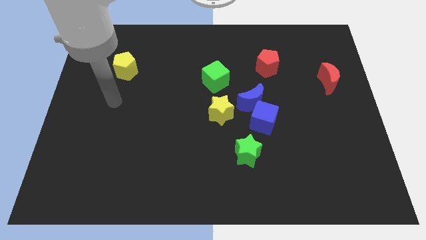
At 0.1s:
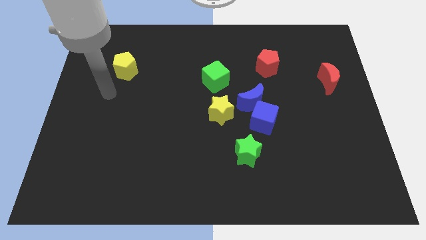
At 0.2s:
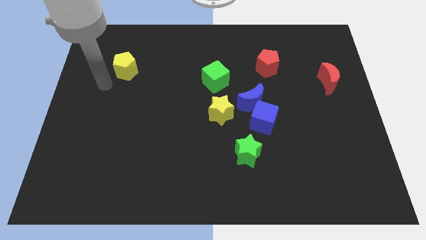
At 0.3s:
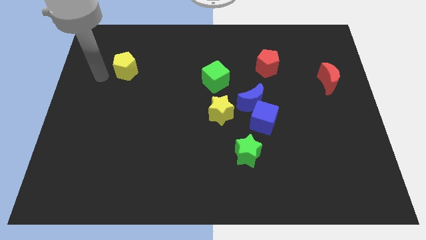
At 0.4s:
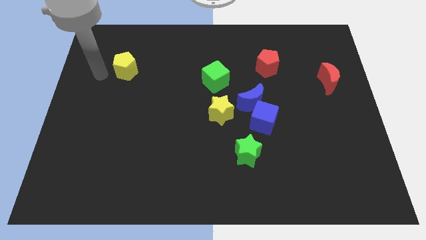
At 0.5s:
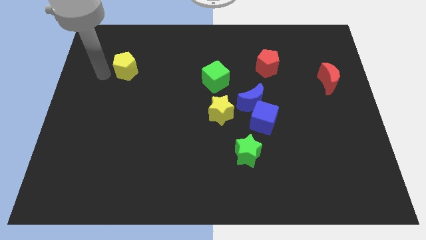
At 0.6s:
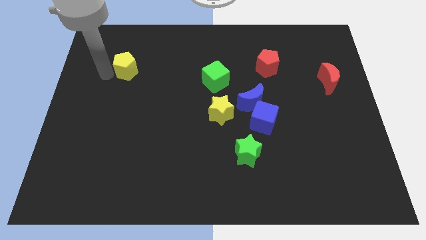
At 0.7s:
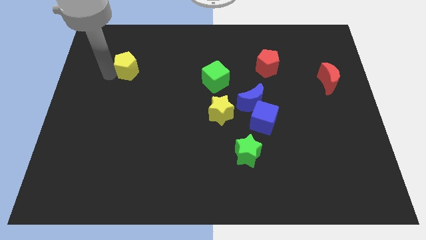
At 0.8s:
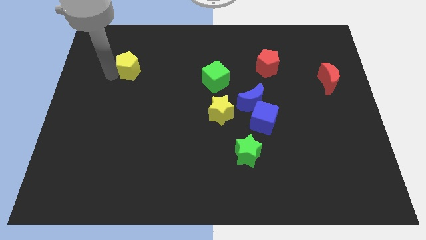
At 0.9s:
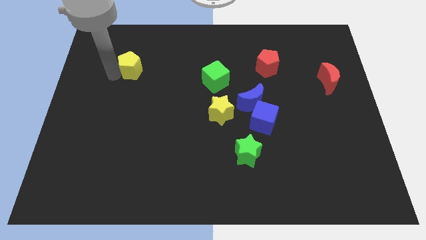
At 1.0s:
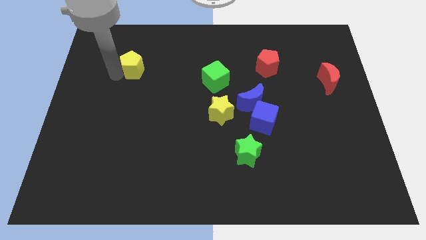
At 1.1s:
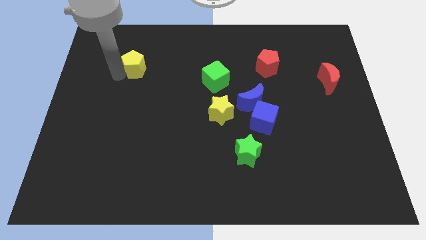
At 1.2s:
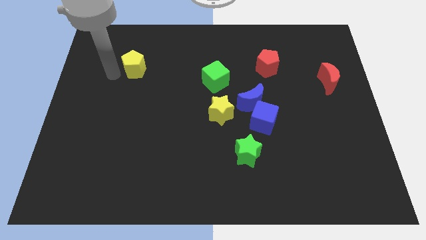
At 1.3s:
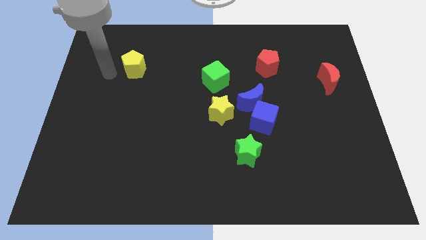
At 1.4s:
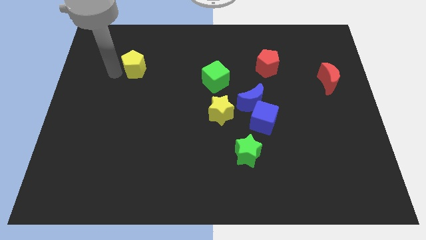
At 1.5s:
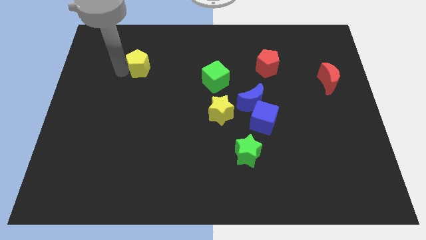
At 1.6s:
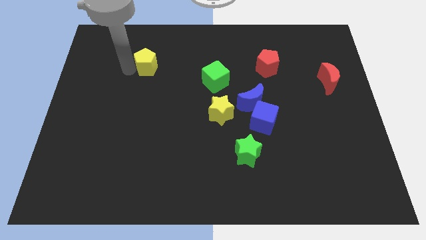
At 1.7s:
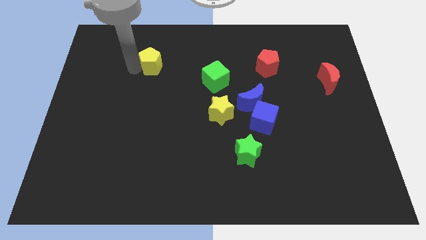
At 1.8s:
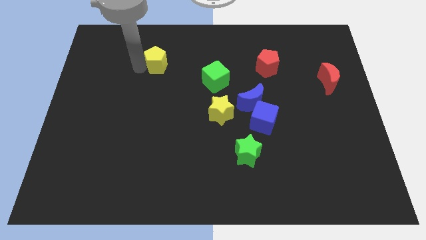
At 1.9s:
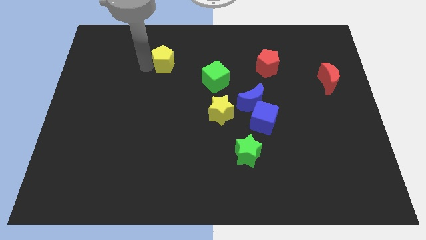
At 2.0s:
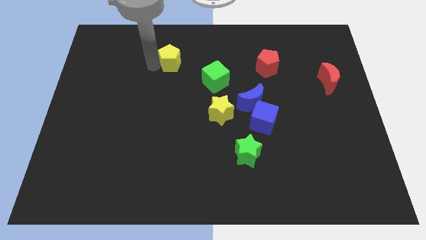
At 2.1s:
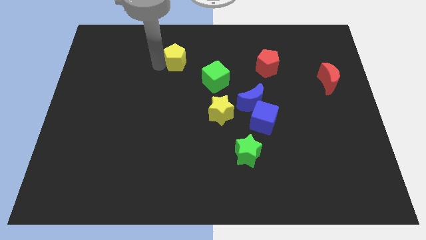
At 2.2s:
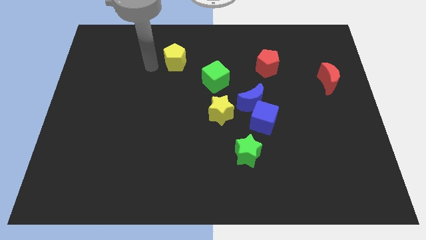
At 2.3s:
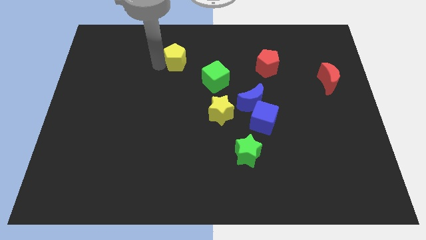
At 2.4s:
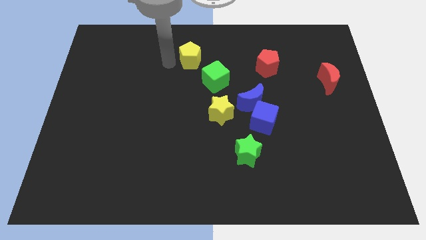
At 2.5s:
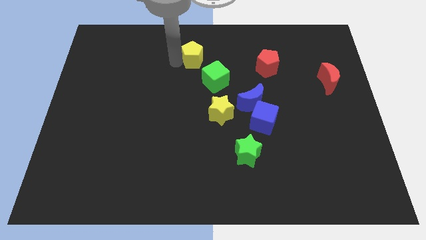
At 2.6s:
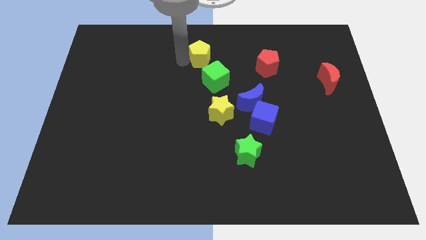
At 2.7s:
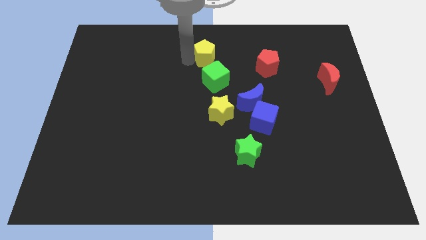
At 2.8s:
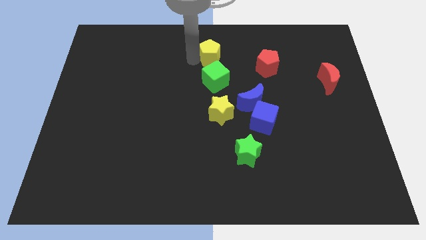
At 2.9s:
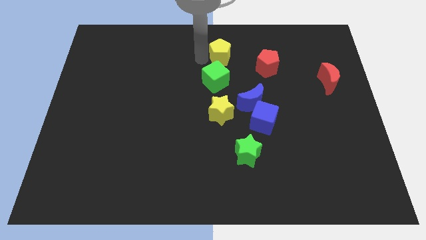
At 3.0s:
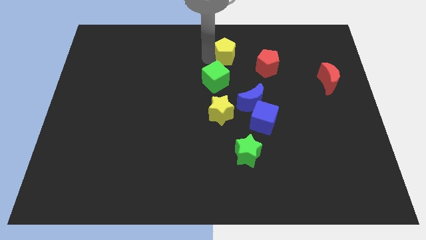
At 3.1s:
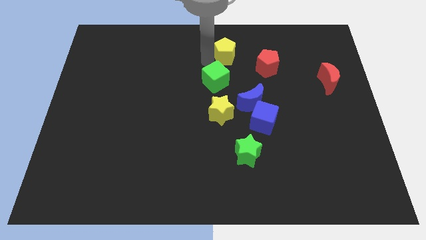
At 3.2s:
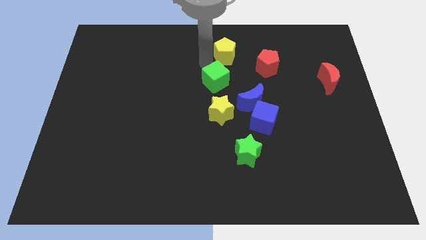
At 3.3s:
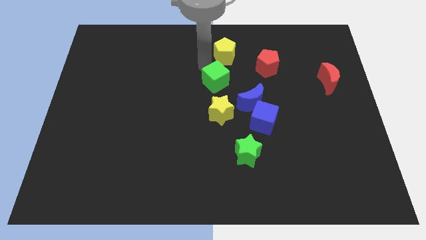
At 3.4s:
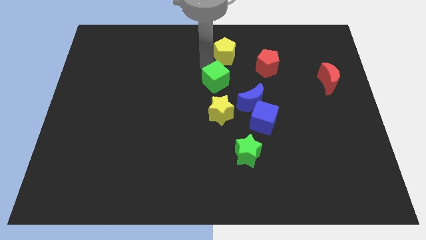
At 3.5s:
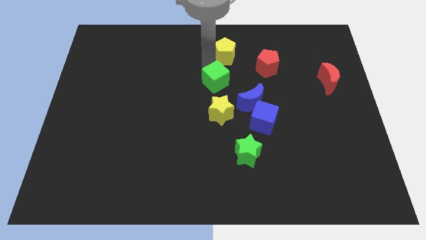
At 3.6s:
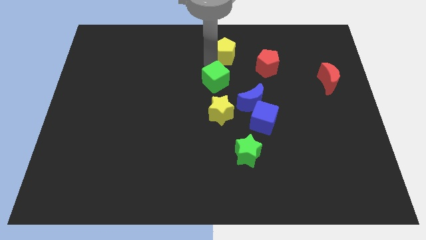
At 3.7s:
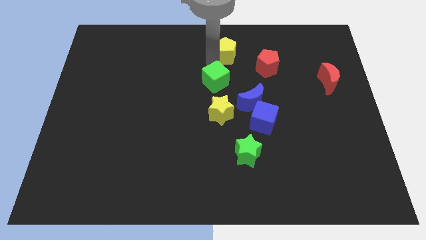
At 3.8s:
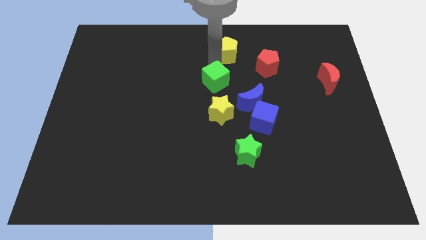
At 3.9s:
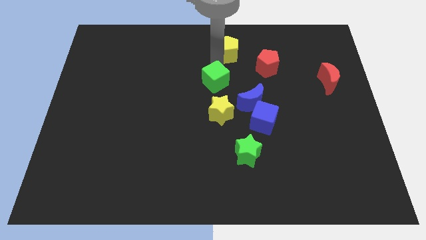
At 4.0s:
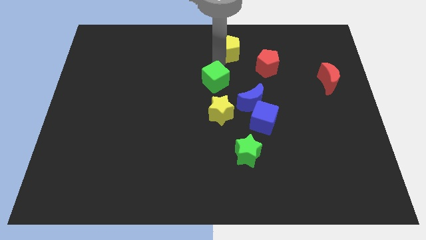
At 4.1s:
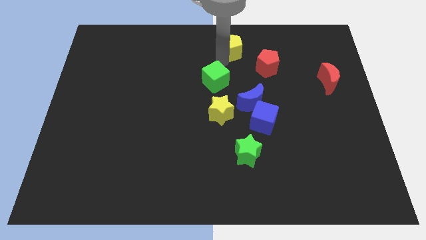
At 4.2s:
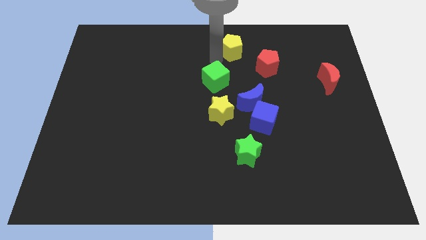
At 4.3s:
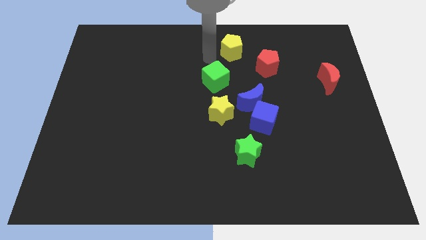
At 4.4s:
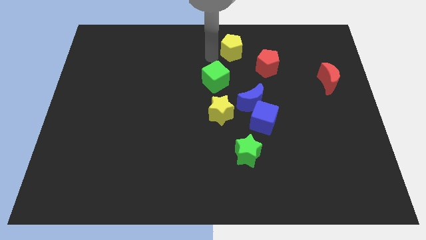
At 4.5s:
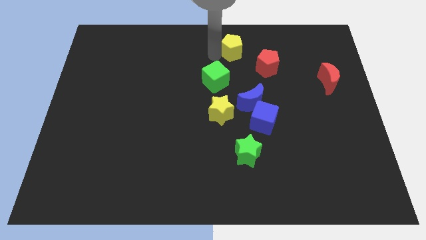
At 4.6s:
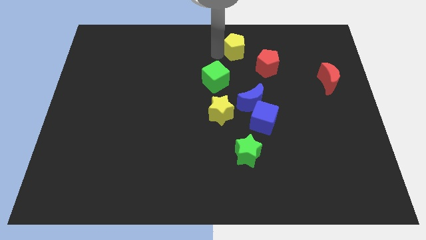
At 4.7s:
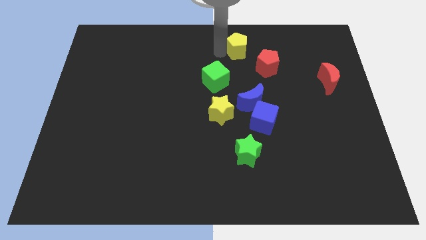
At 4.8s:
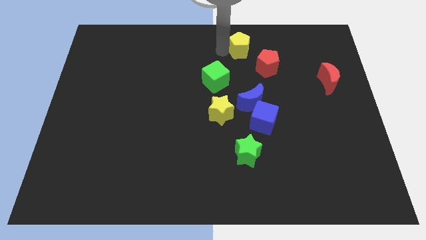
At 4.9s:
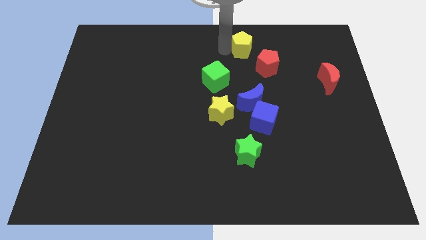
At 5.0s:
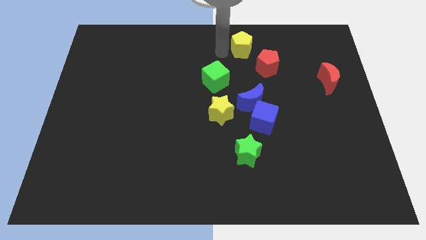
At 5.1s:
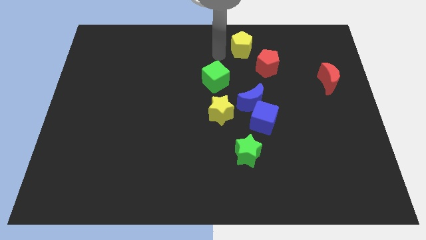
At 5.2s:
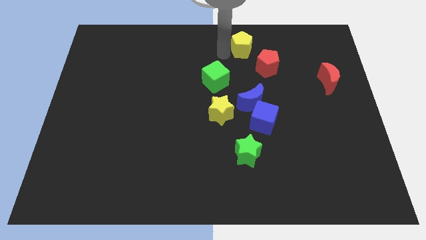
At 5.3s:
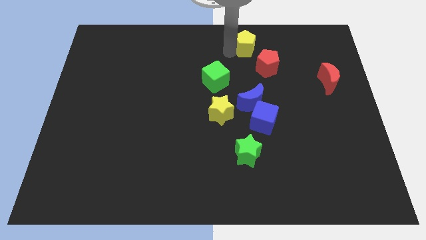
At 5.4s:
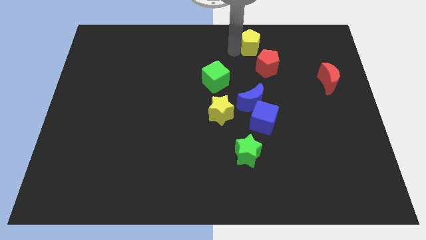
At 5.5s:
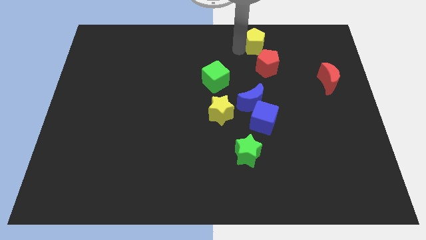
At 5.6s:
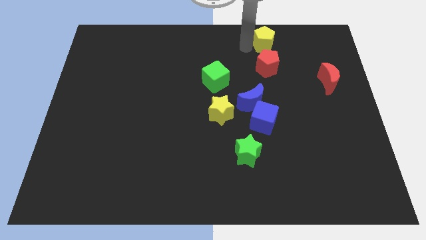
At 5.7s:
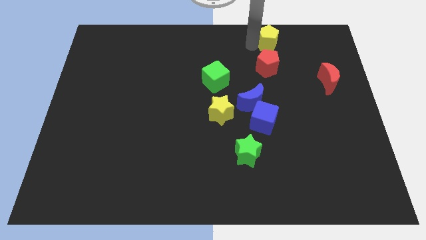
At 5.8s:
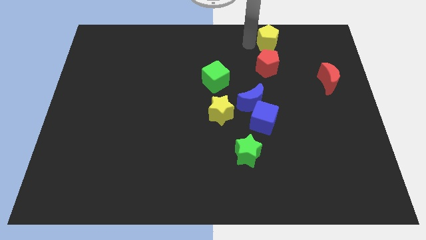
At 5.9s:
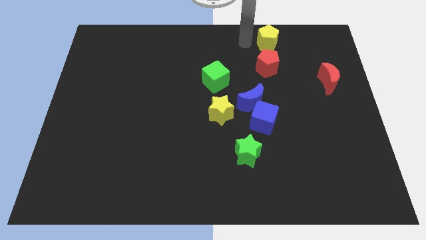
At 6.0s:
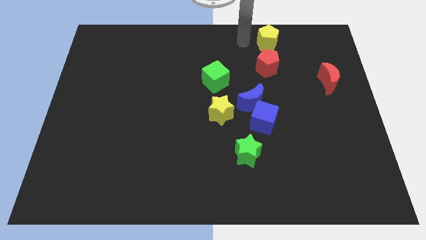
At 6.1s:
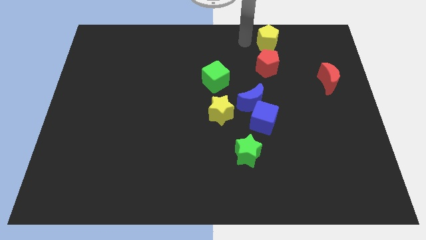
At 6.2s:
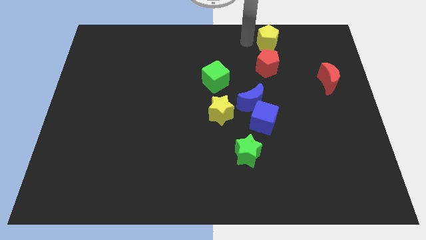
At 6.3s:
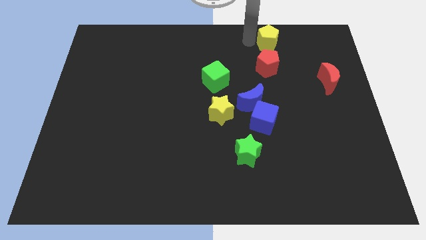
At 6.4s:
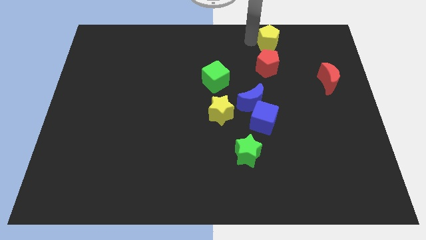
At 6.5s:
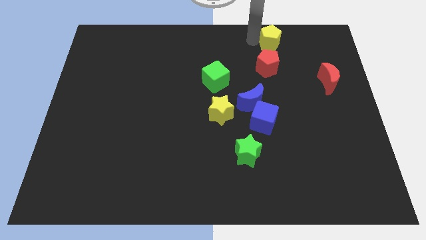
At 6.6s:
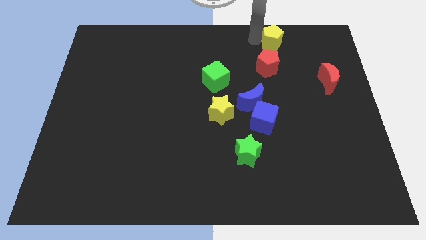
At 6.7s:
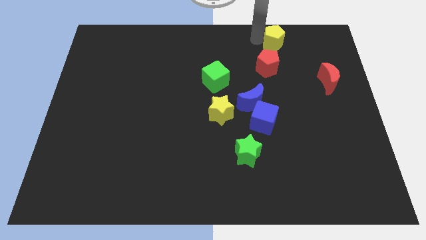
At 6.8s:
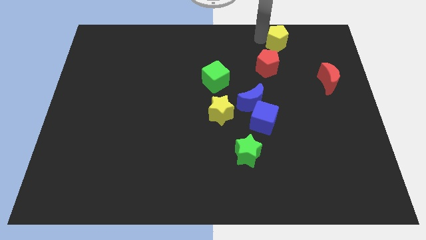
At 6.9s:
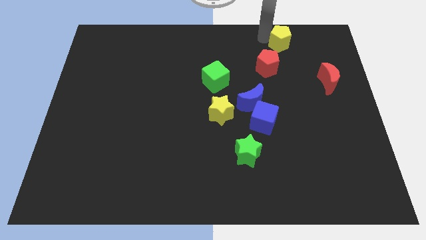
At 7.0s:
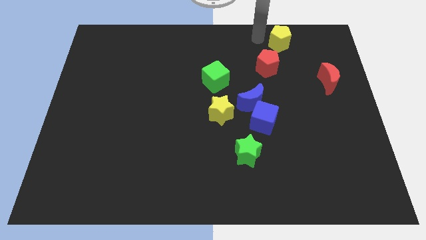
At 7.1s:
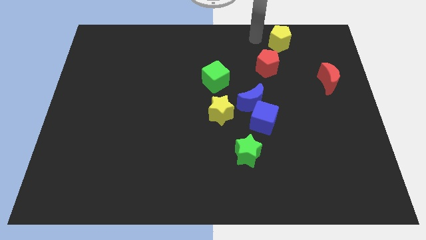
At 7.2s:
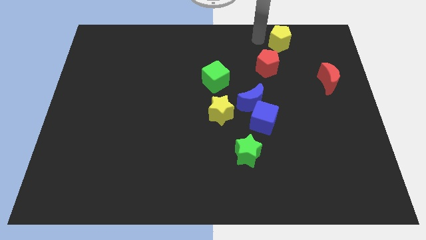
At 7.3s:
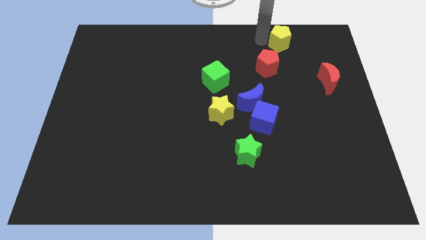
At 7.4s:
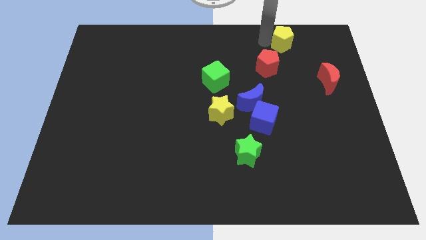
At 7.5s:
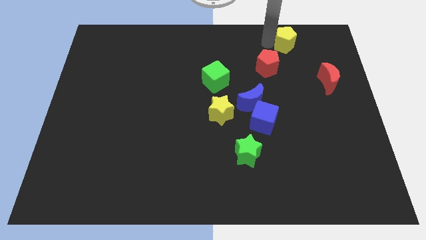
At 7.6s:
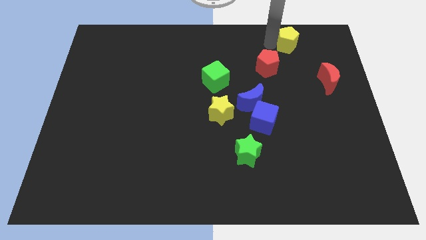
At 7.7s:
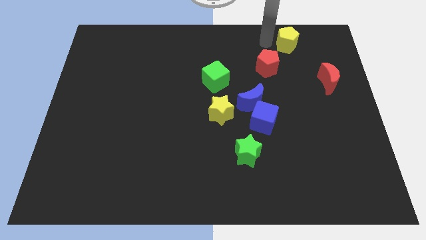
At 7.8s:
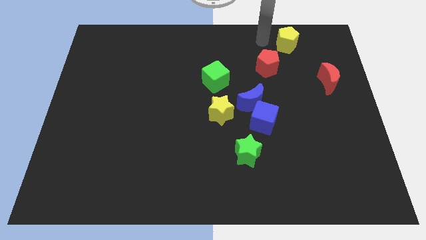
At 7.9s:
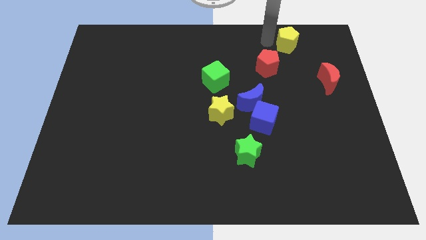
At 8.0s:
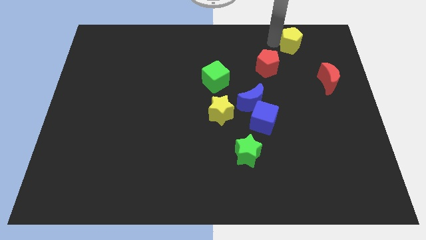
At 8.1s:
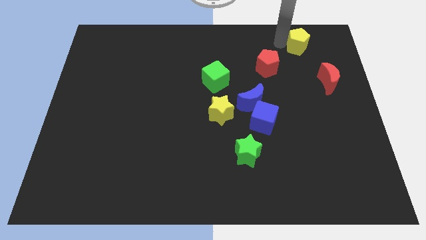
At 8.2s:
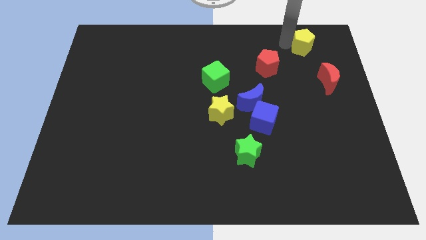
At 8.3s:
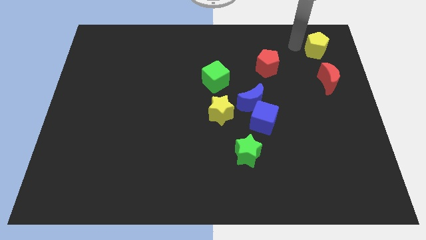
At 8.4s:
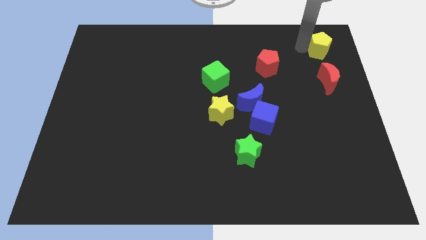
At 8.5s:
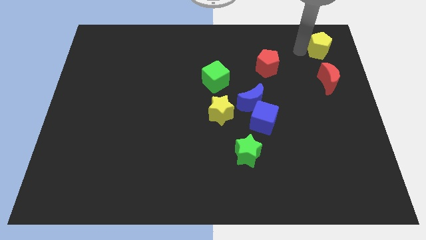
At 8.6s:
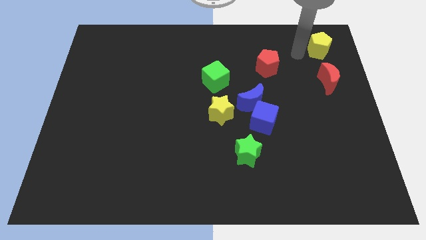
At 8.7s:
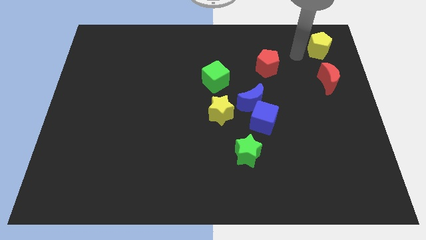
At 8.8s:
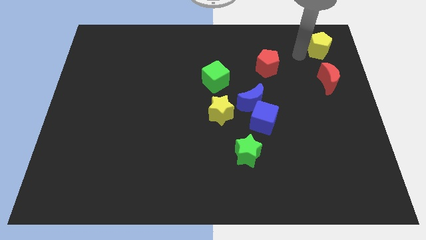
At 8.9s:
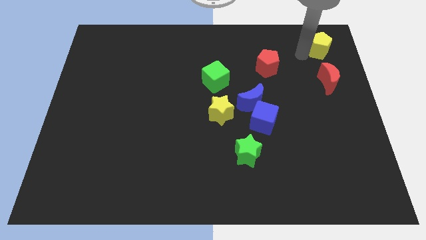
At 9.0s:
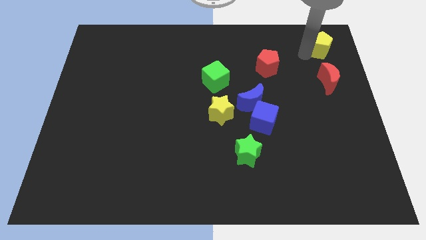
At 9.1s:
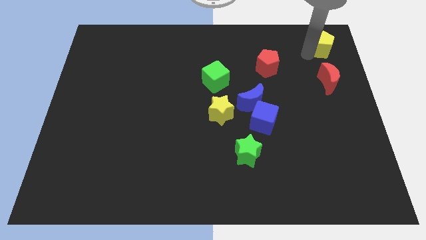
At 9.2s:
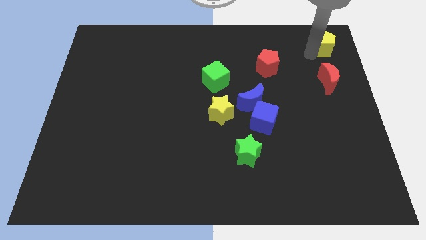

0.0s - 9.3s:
put the yellow pentagon to the top right of the board
